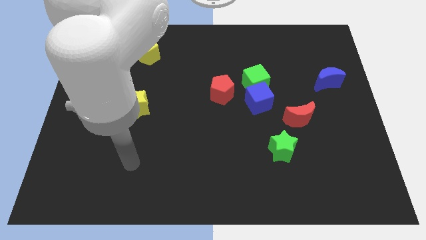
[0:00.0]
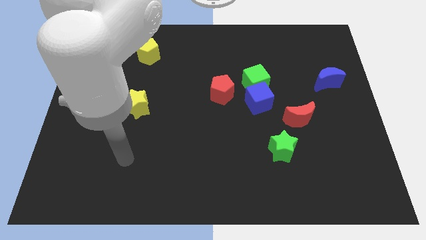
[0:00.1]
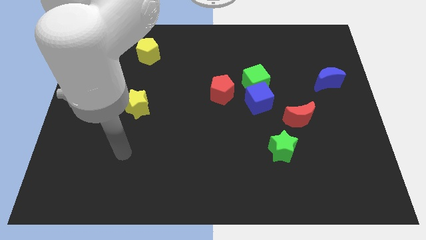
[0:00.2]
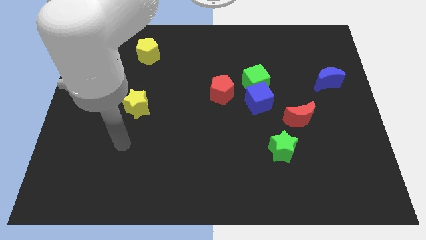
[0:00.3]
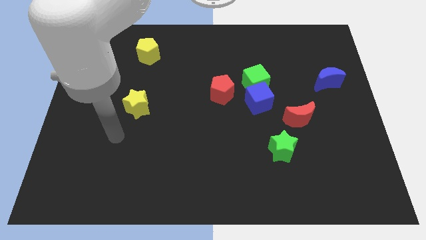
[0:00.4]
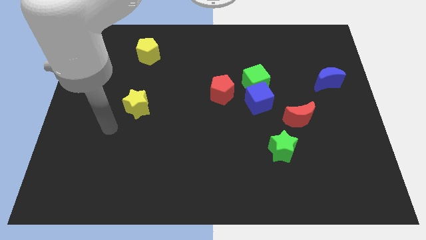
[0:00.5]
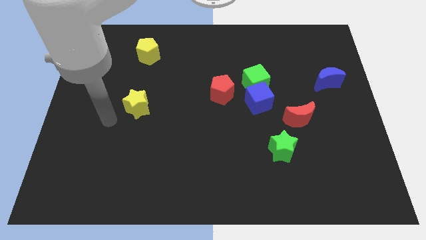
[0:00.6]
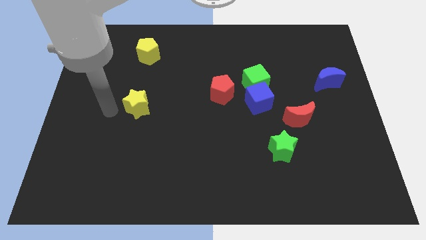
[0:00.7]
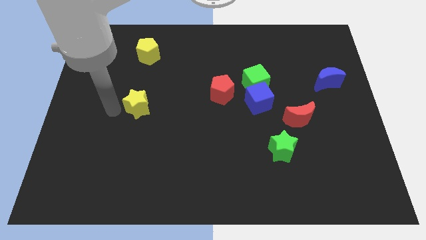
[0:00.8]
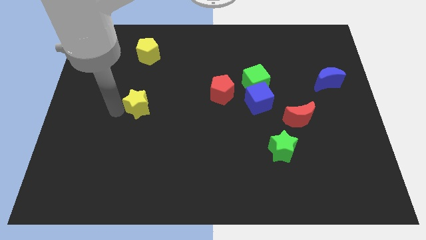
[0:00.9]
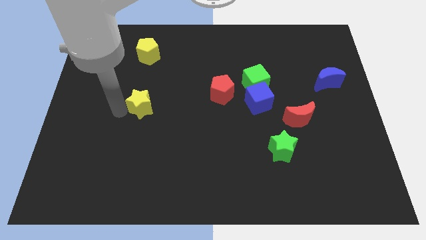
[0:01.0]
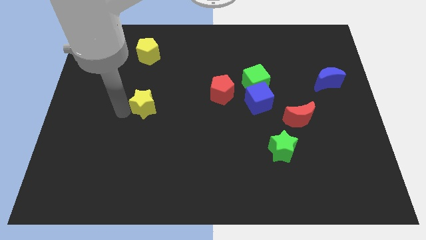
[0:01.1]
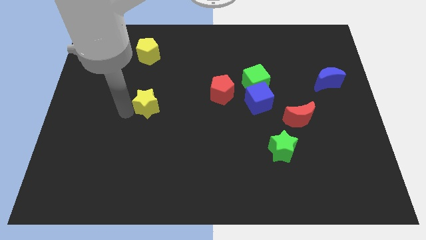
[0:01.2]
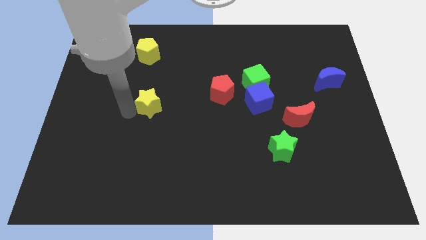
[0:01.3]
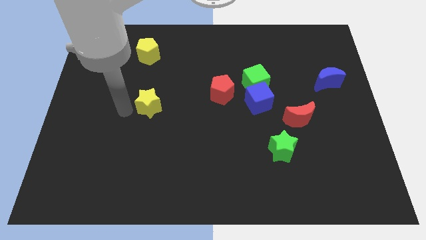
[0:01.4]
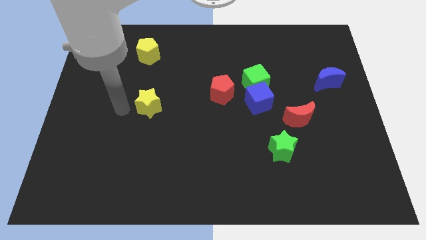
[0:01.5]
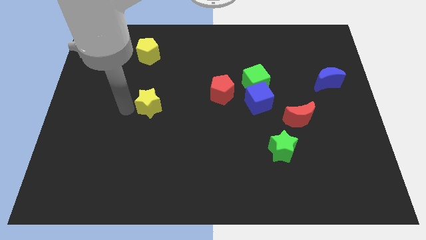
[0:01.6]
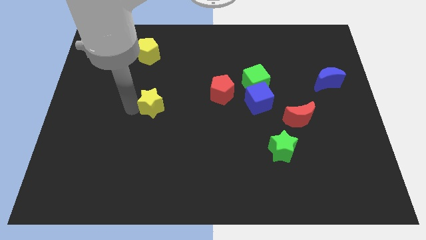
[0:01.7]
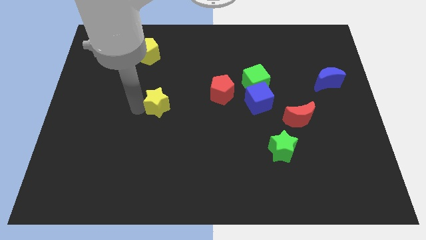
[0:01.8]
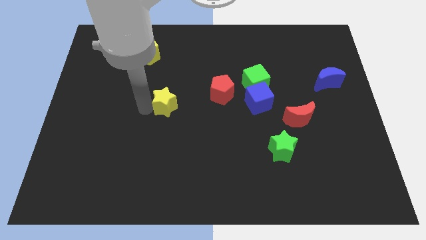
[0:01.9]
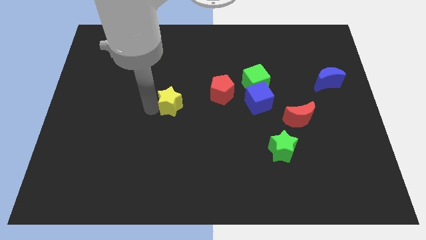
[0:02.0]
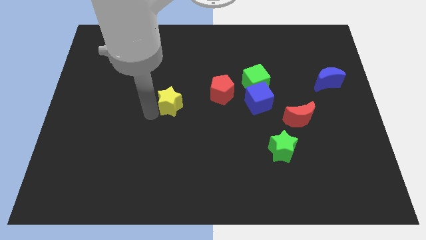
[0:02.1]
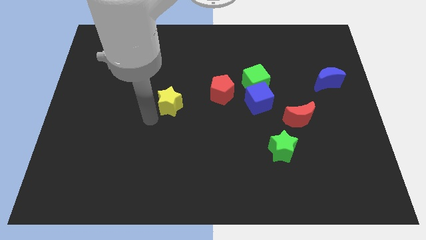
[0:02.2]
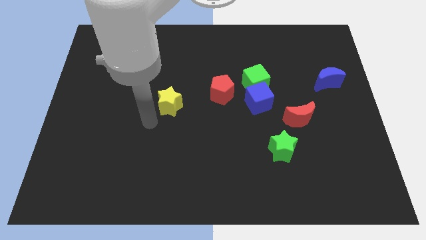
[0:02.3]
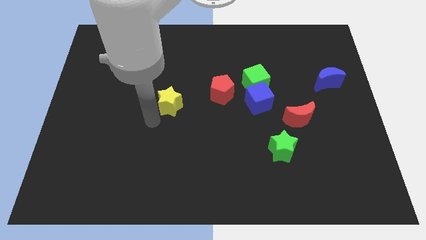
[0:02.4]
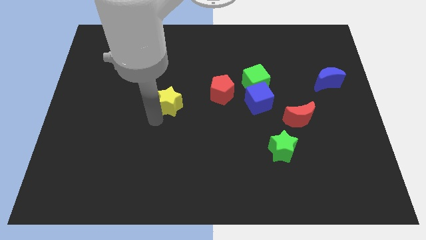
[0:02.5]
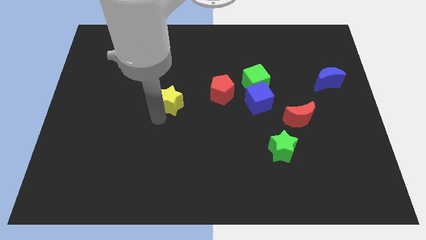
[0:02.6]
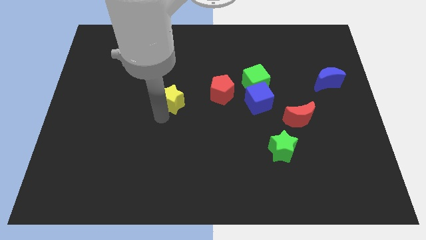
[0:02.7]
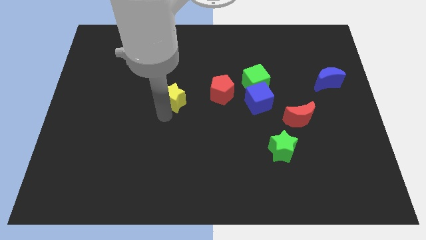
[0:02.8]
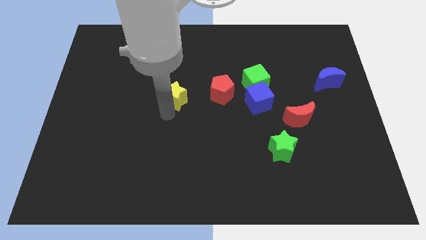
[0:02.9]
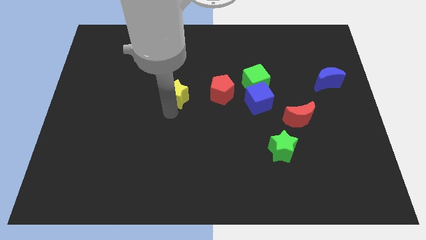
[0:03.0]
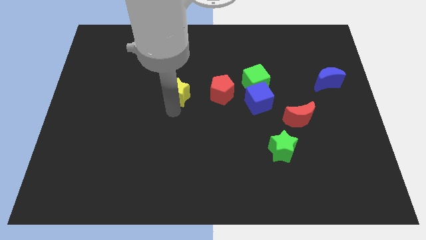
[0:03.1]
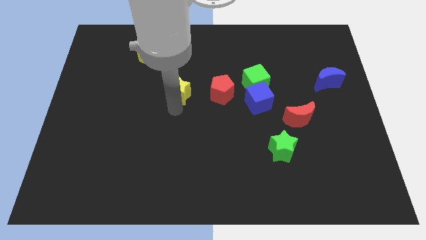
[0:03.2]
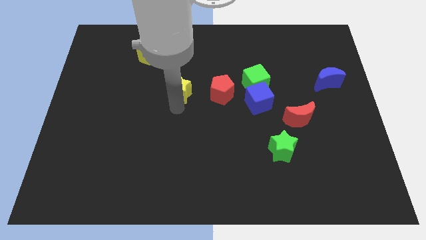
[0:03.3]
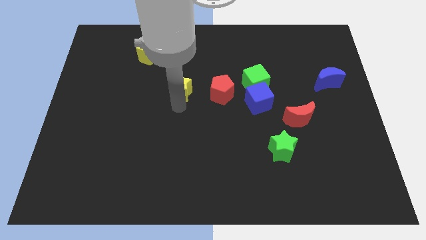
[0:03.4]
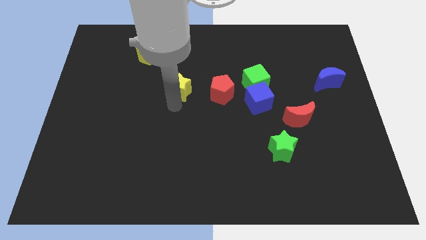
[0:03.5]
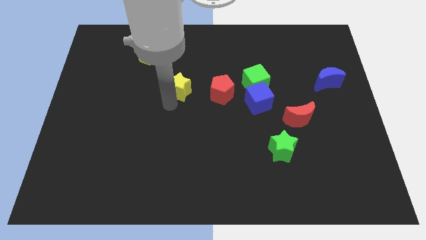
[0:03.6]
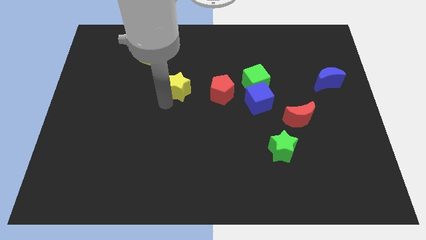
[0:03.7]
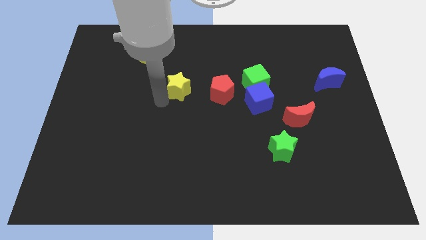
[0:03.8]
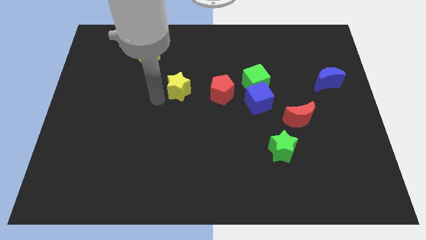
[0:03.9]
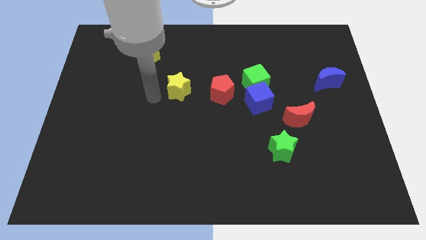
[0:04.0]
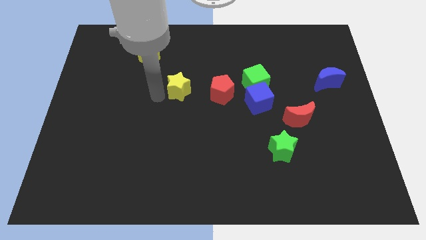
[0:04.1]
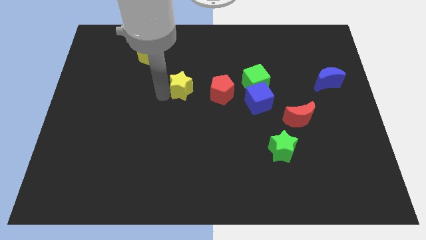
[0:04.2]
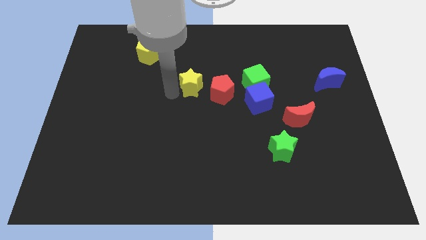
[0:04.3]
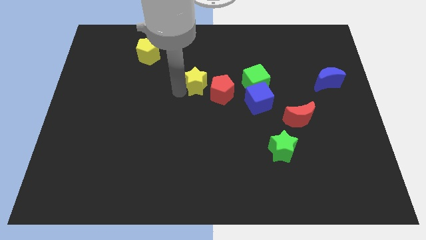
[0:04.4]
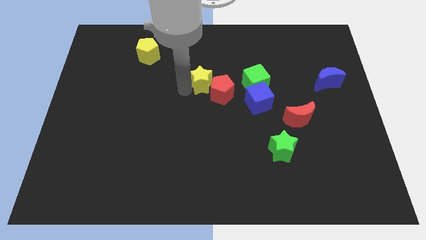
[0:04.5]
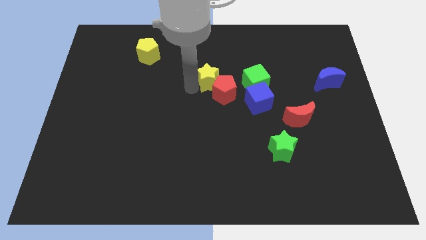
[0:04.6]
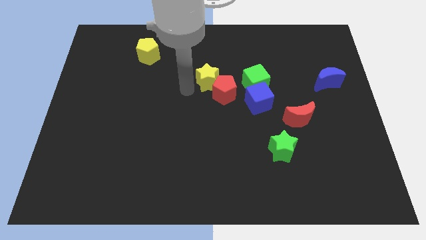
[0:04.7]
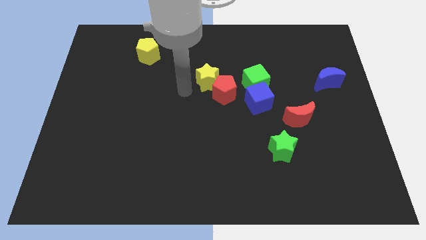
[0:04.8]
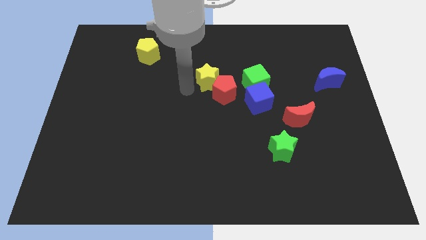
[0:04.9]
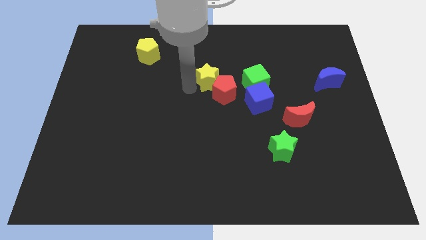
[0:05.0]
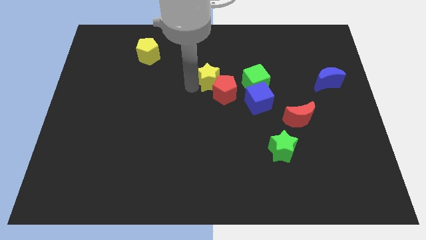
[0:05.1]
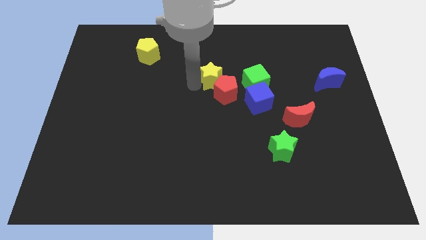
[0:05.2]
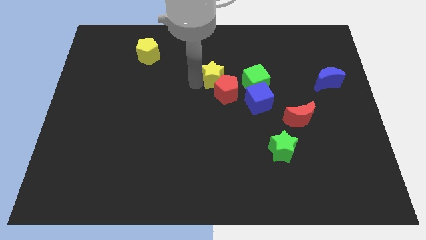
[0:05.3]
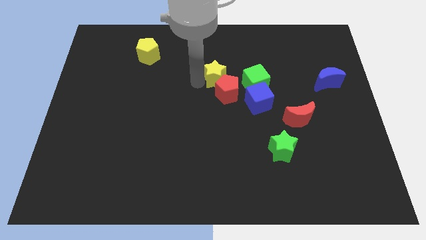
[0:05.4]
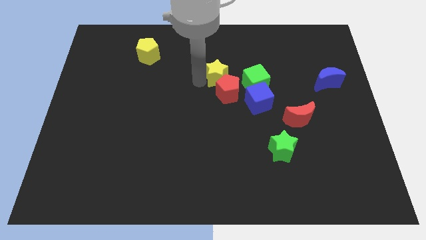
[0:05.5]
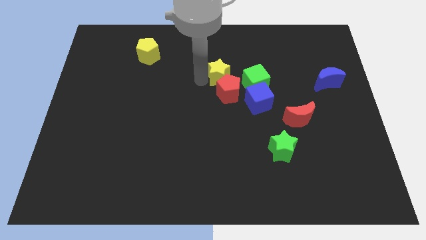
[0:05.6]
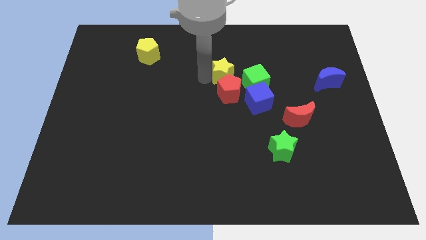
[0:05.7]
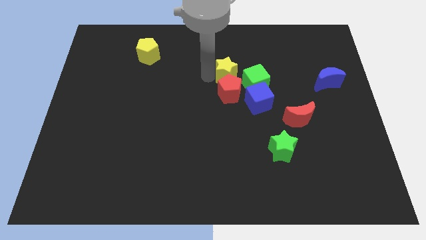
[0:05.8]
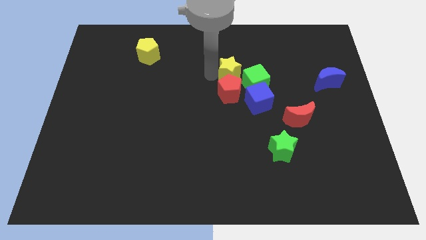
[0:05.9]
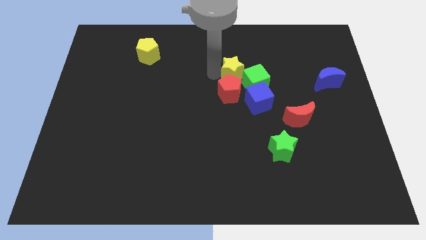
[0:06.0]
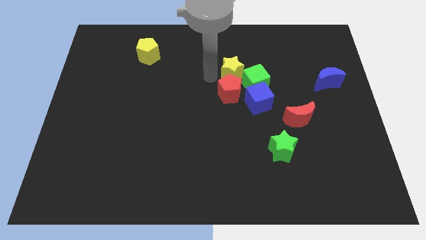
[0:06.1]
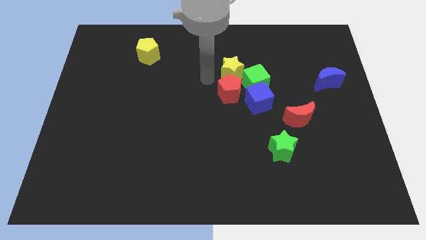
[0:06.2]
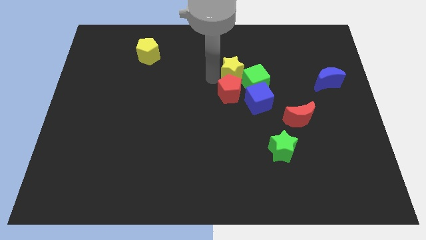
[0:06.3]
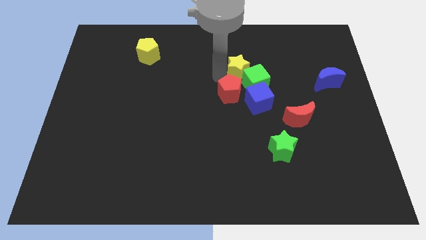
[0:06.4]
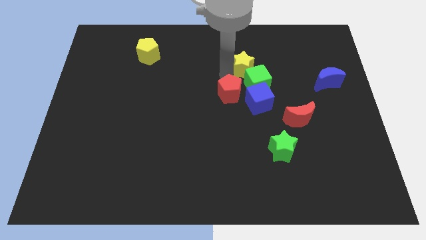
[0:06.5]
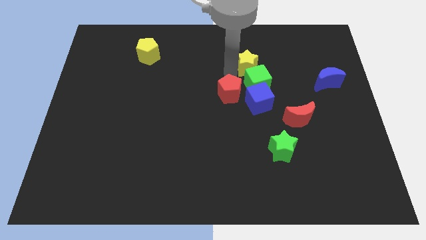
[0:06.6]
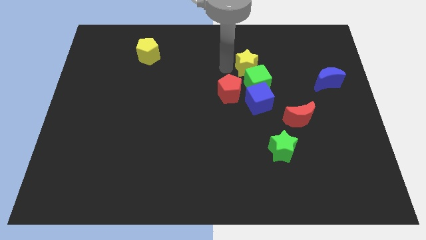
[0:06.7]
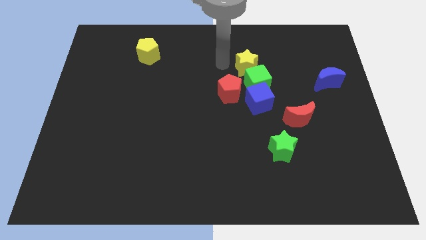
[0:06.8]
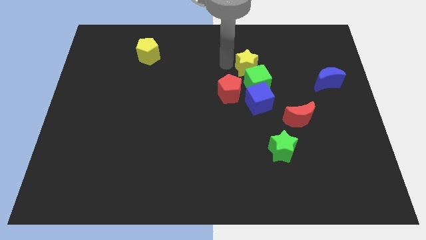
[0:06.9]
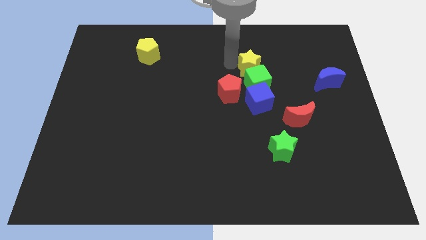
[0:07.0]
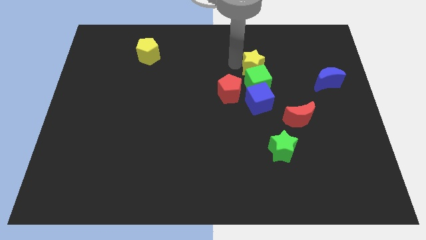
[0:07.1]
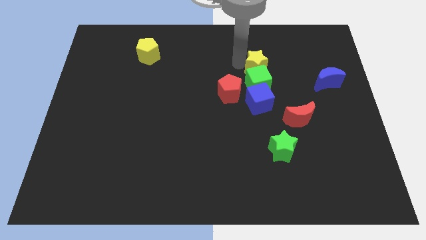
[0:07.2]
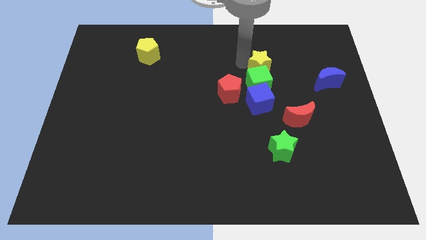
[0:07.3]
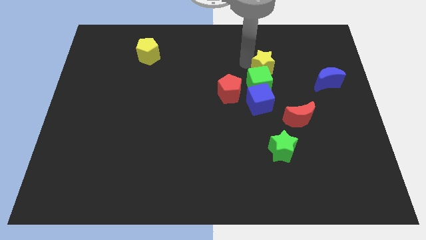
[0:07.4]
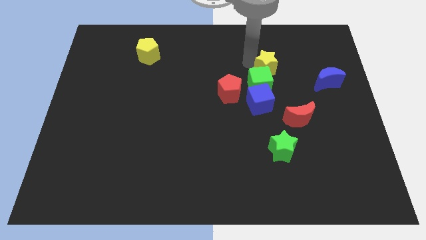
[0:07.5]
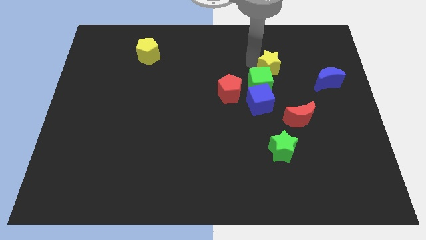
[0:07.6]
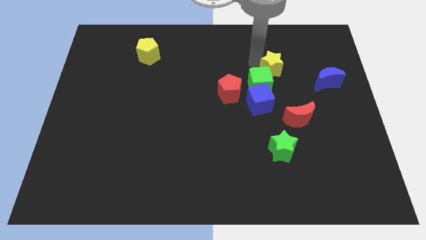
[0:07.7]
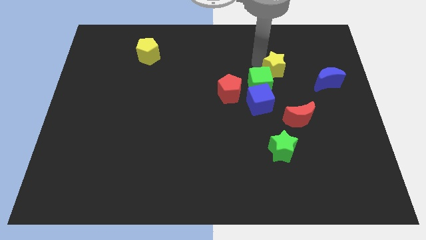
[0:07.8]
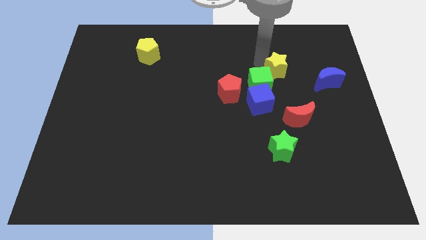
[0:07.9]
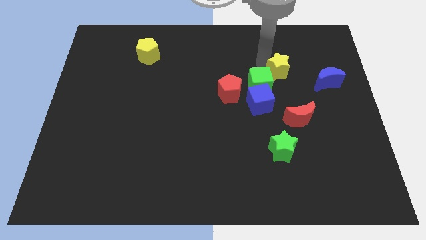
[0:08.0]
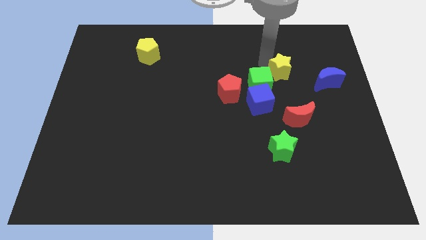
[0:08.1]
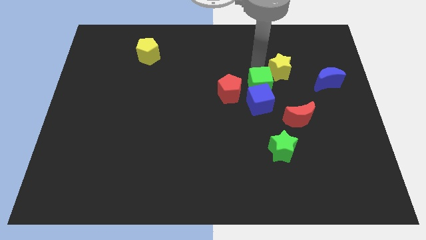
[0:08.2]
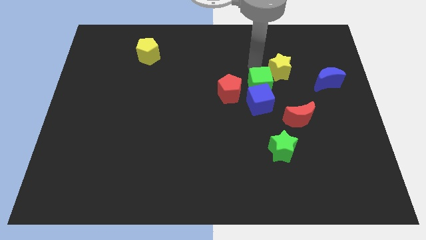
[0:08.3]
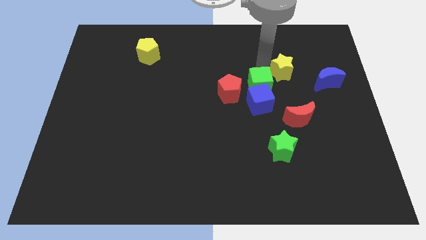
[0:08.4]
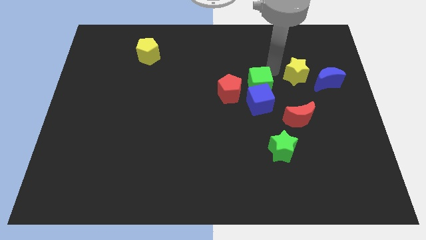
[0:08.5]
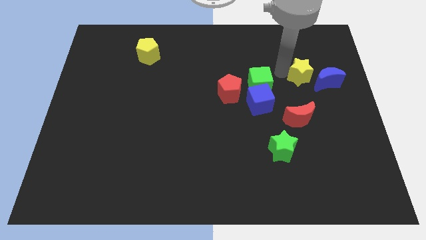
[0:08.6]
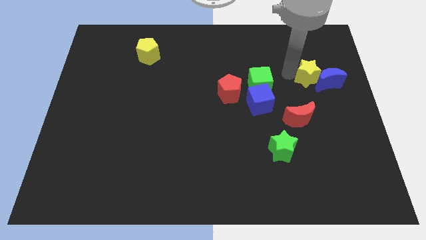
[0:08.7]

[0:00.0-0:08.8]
slide the yellow star close to the blue moon
